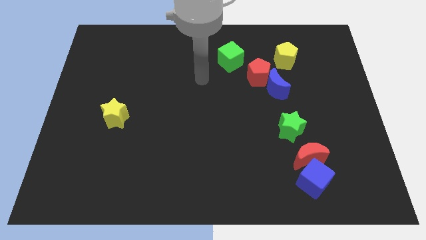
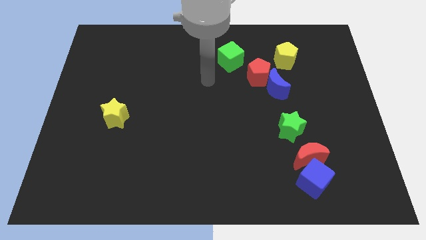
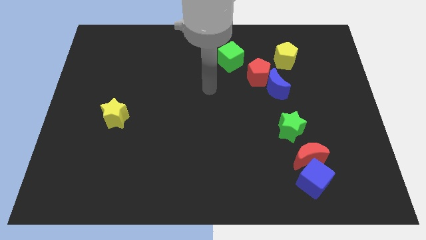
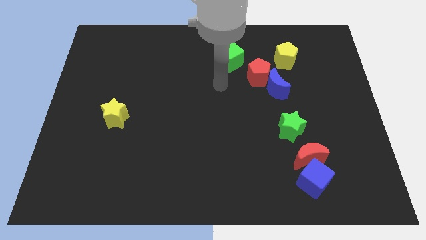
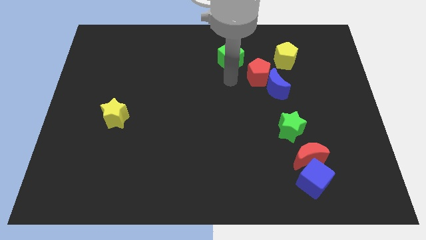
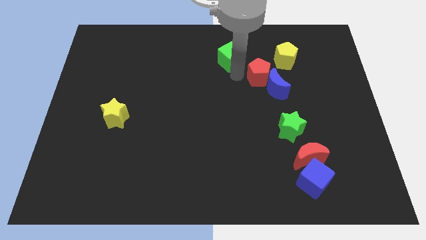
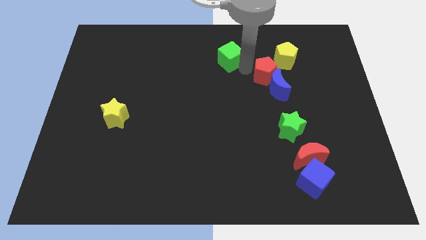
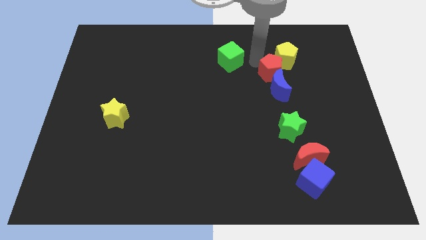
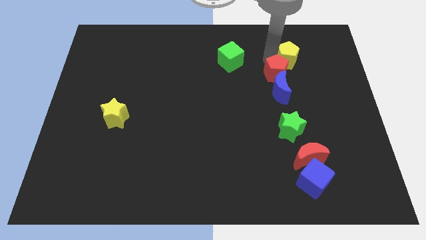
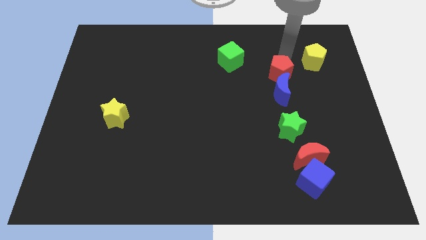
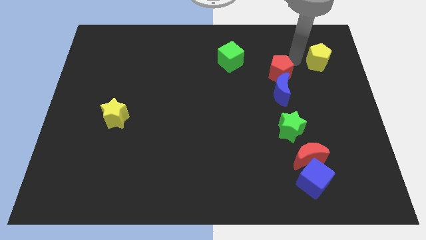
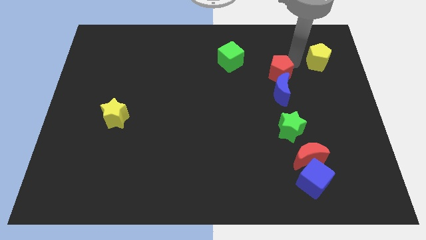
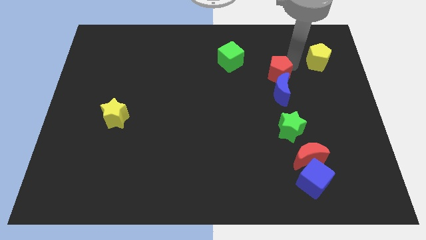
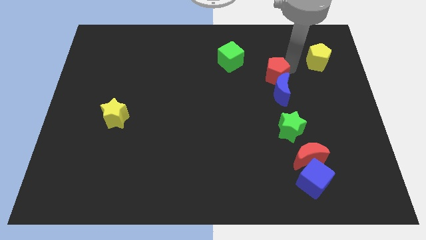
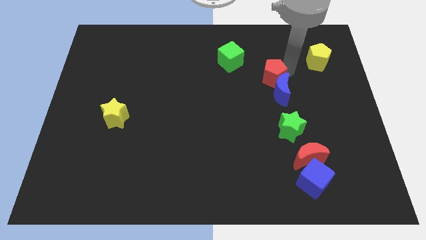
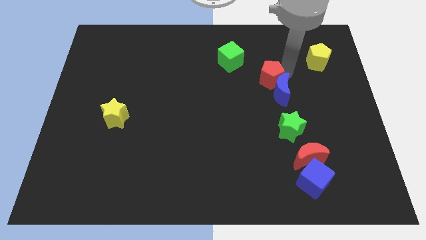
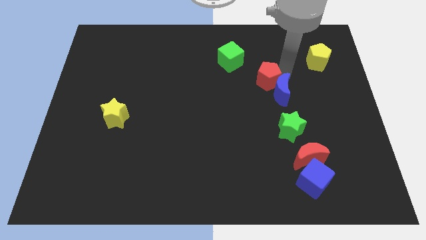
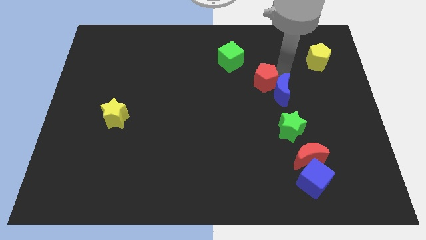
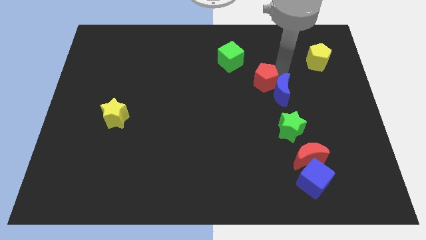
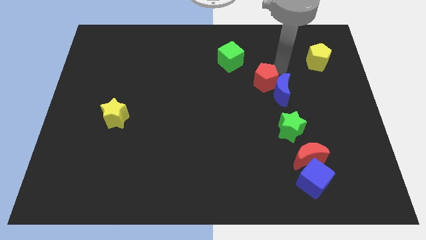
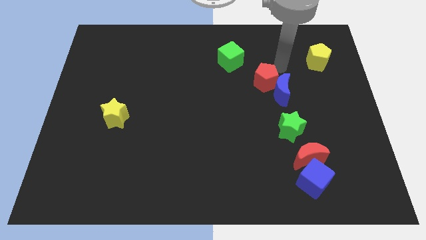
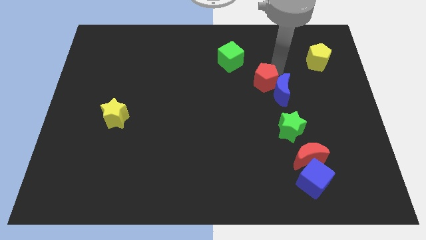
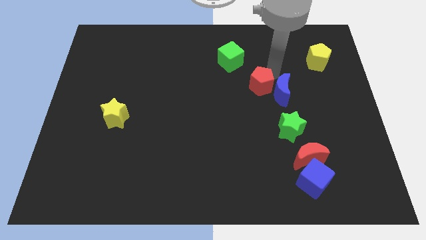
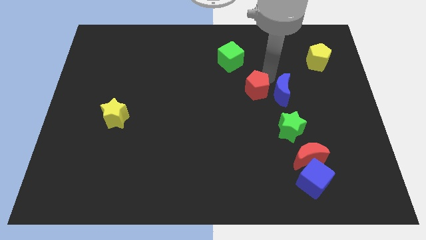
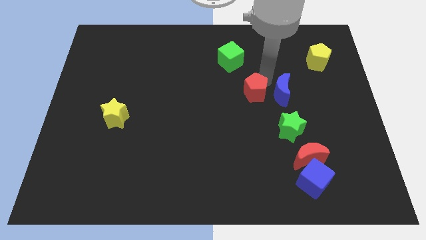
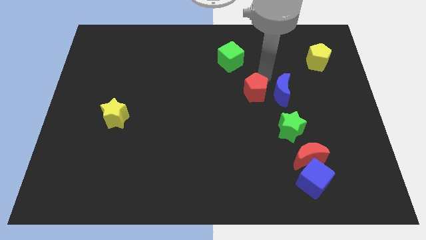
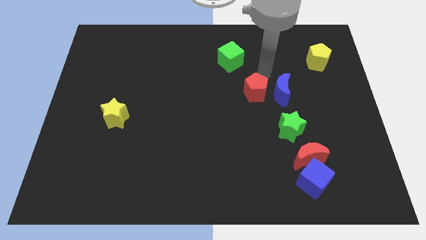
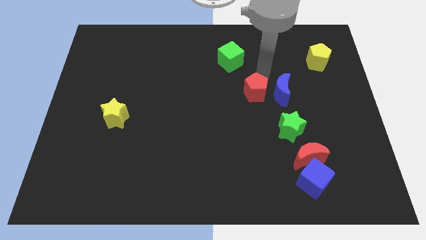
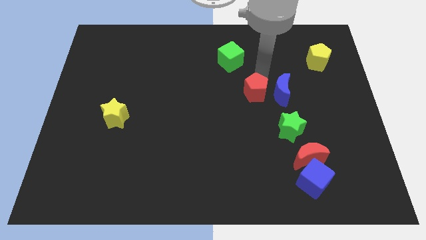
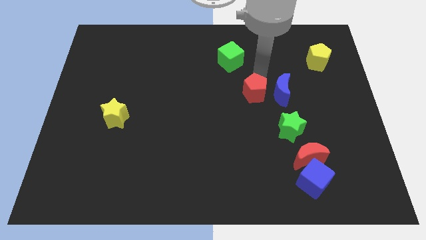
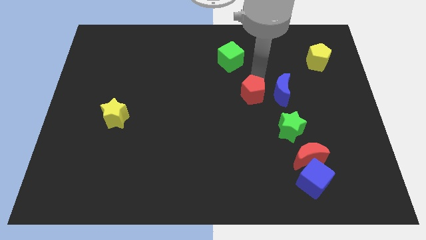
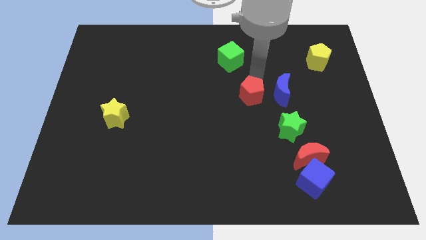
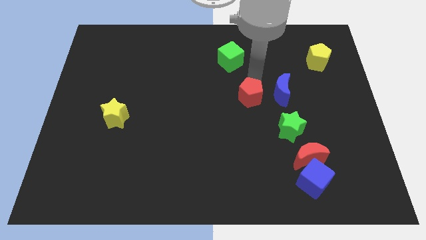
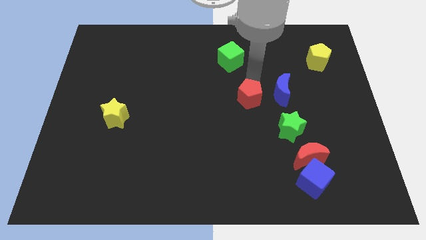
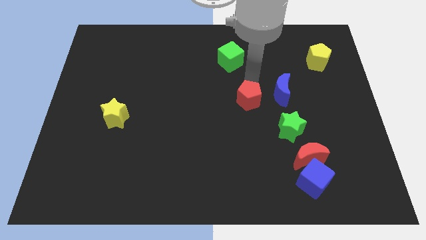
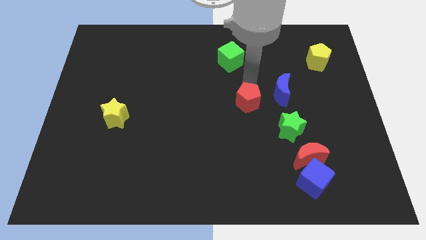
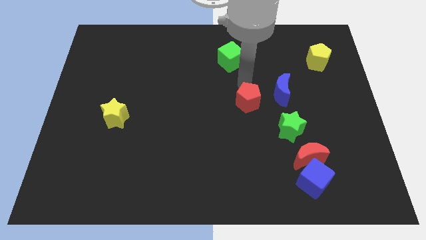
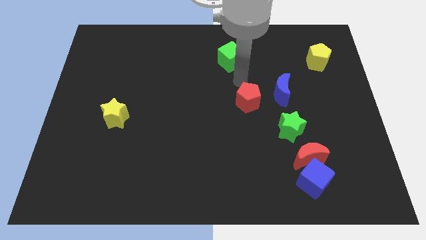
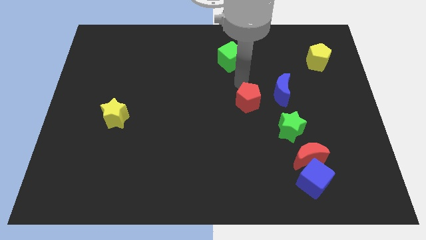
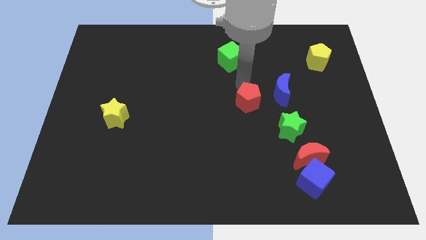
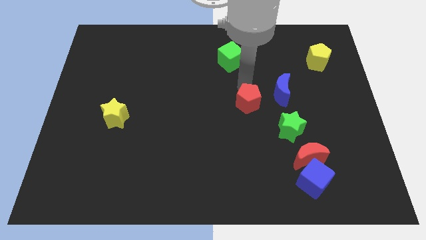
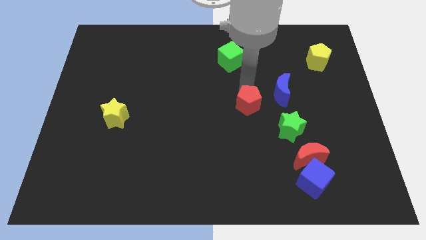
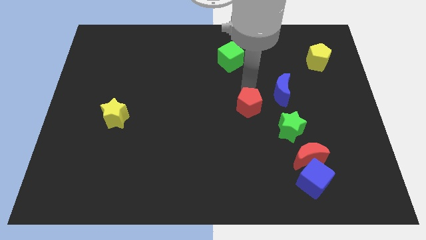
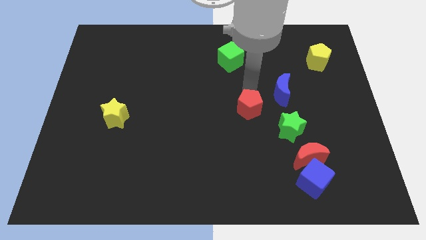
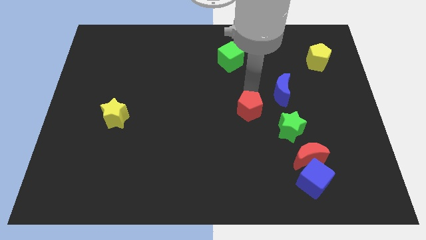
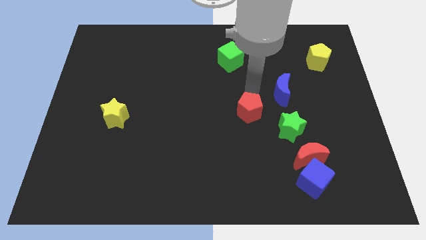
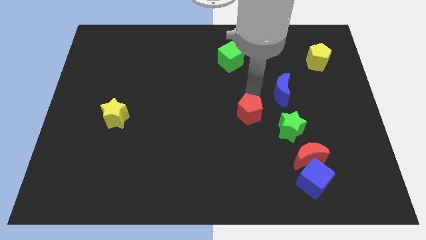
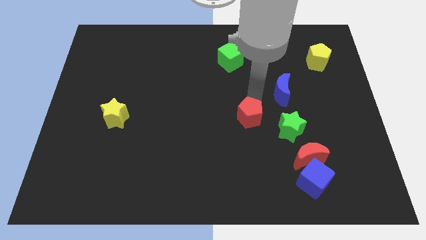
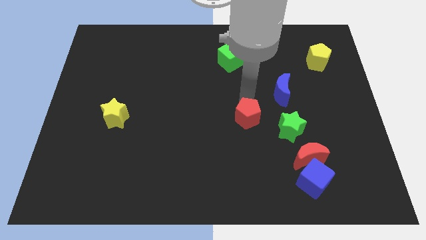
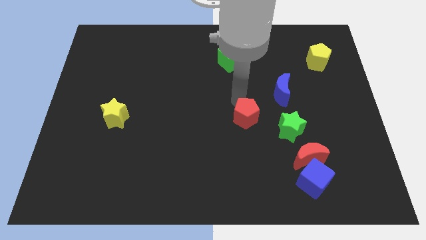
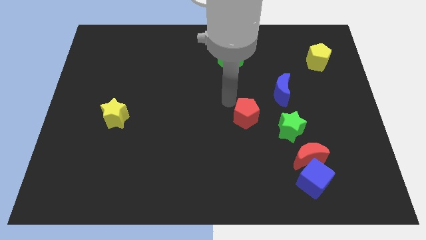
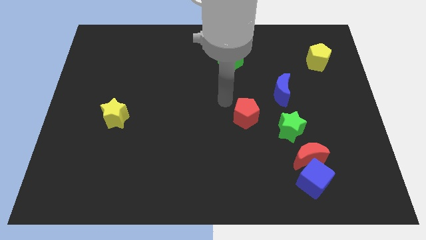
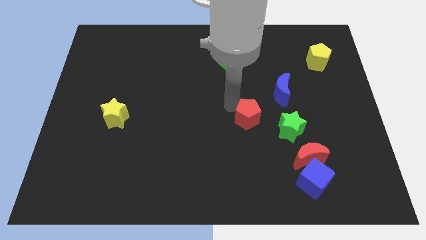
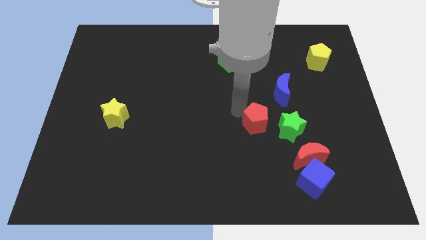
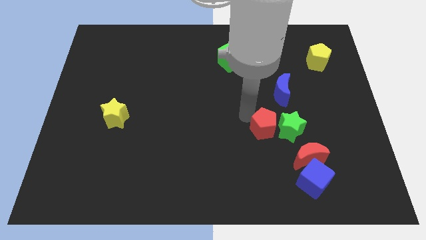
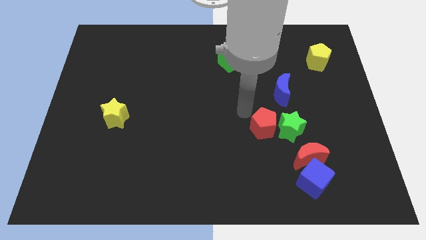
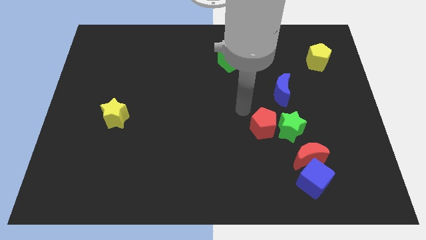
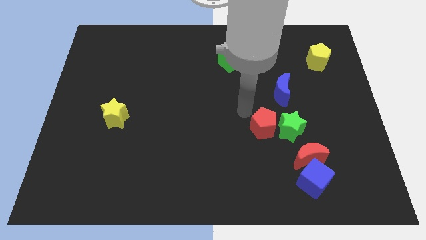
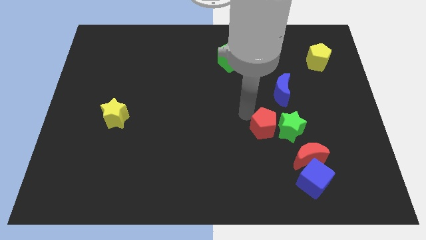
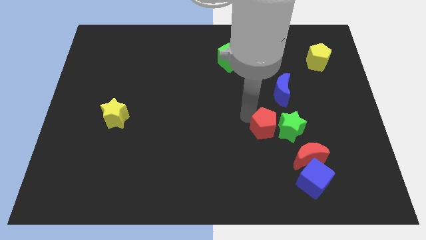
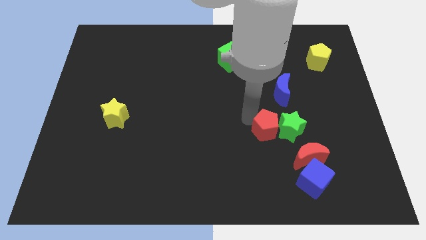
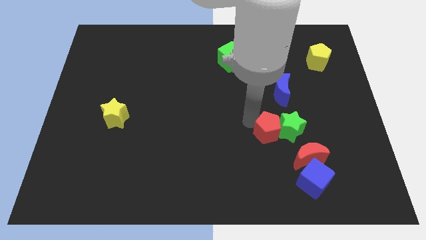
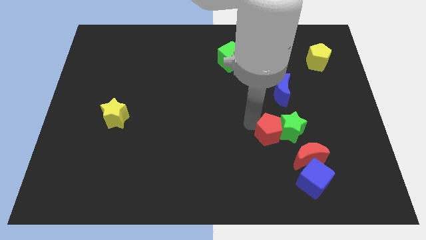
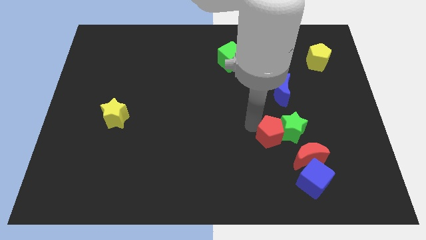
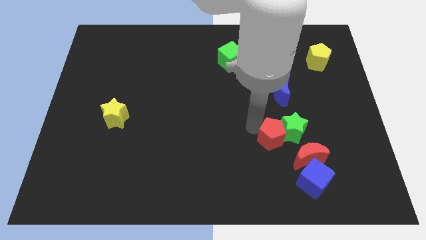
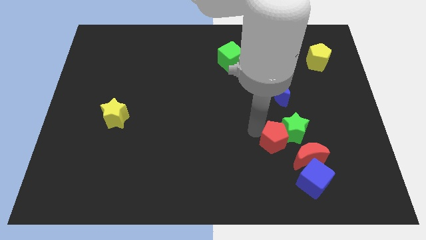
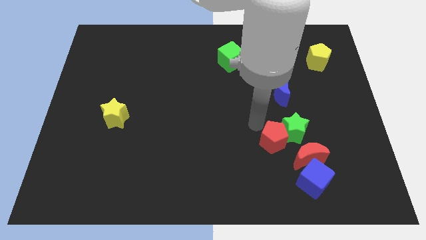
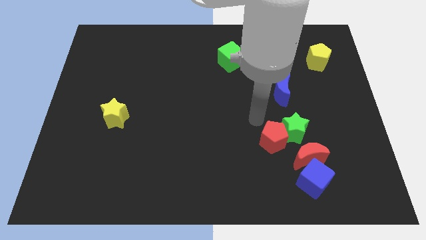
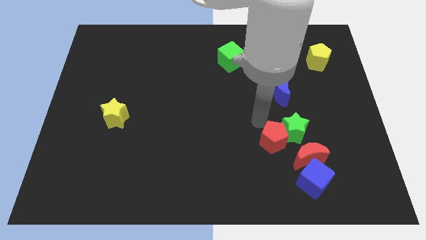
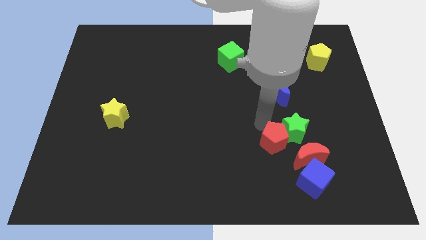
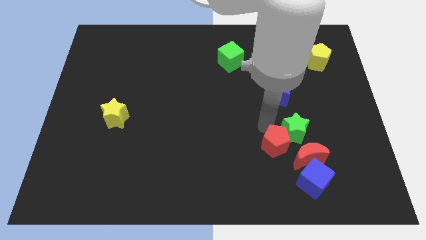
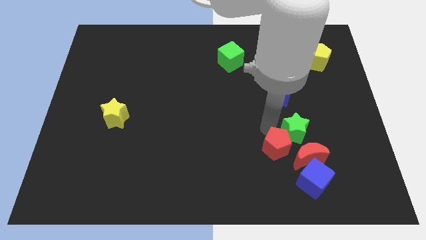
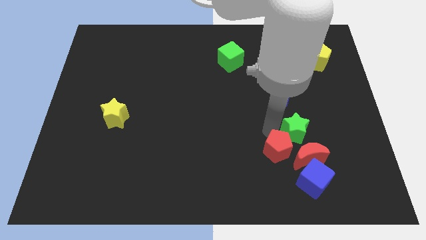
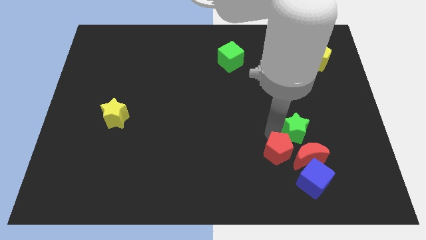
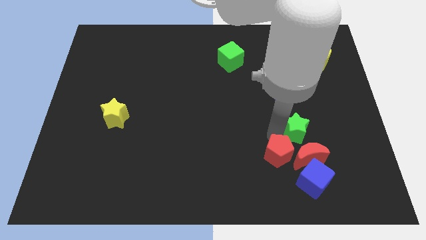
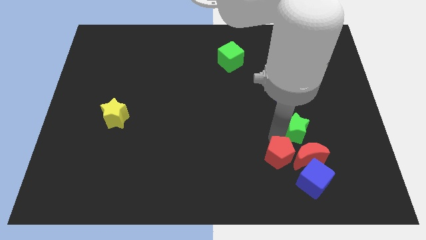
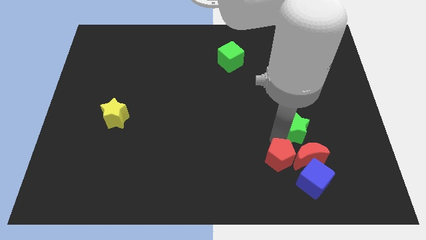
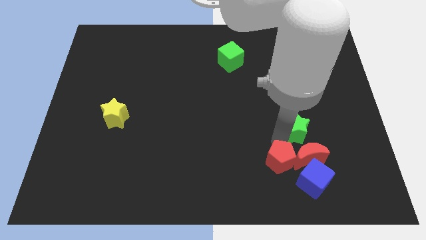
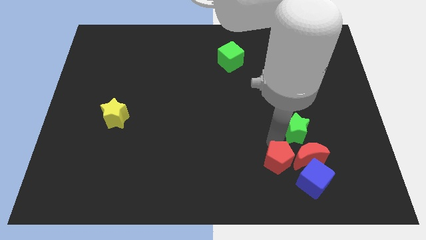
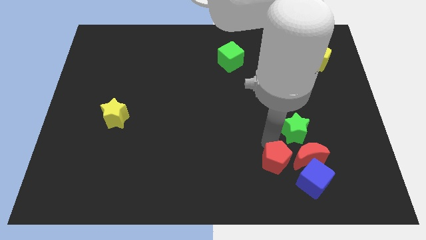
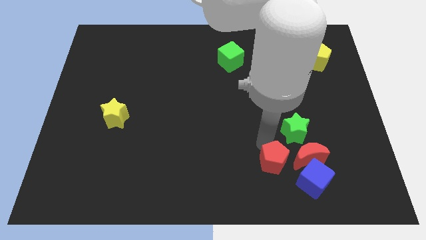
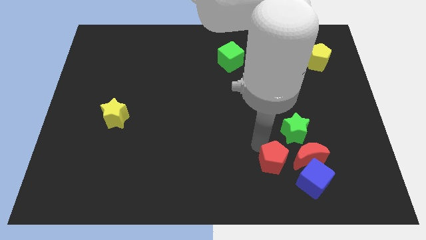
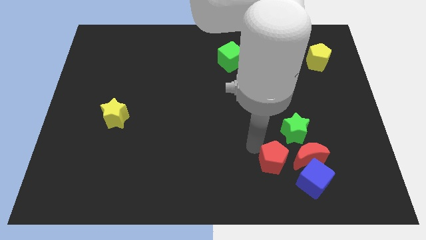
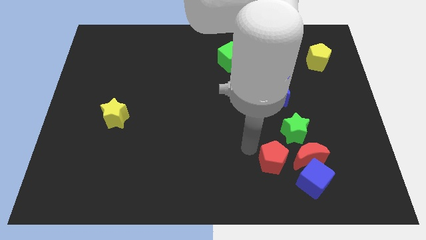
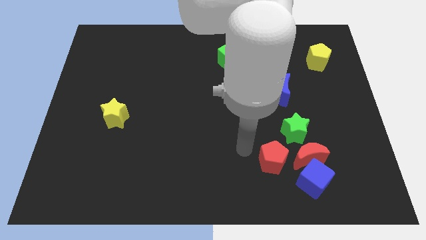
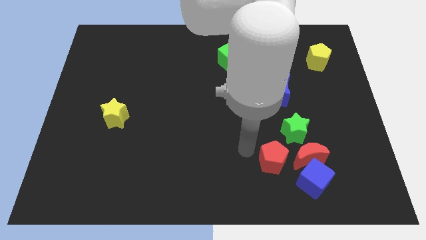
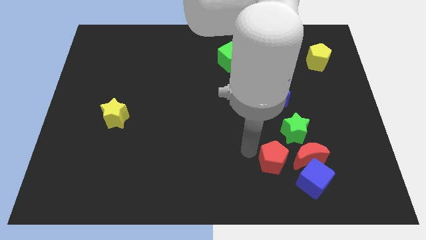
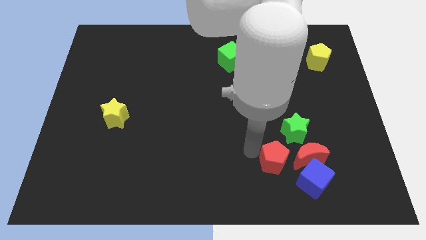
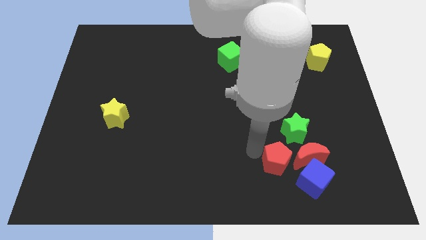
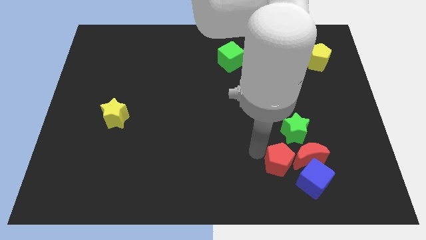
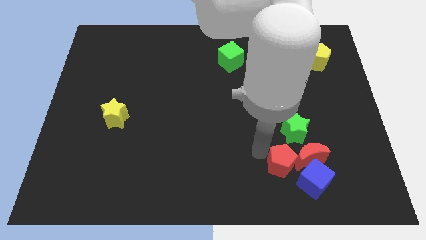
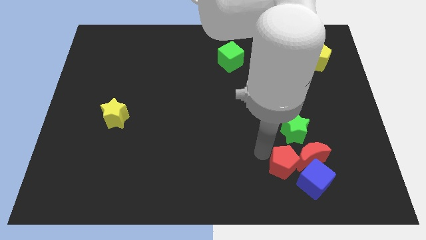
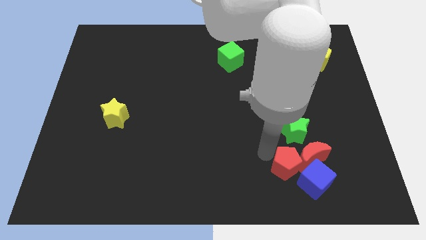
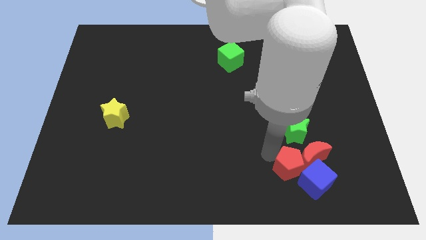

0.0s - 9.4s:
put the red pentagon next to the blue cube
